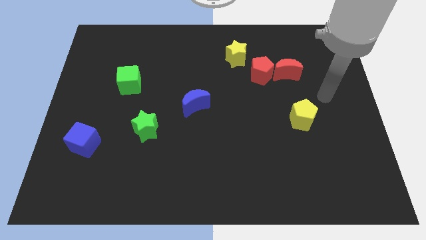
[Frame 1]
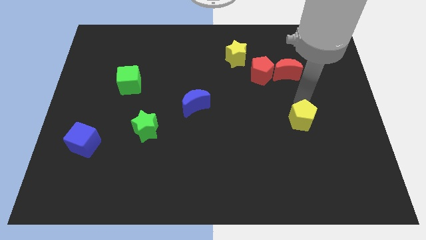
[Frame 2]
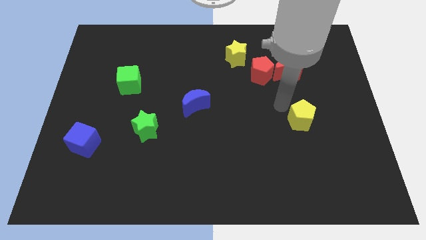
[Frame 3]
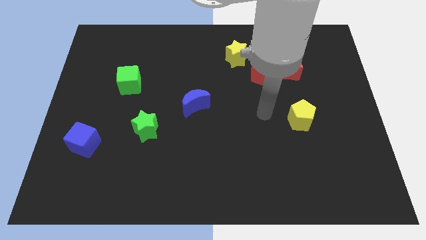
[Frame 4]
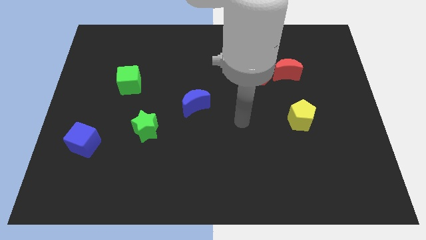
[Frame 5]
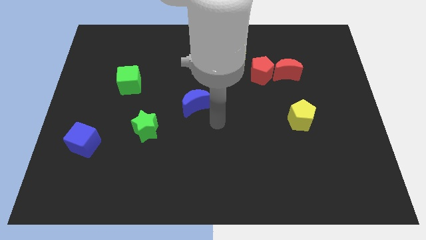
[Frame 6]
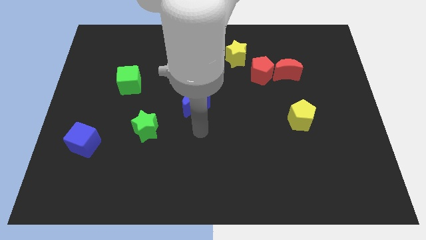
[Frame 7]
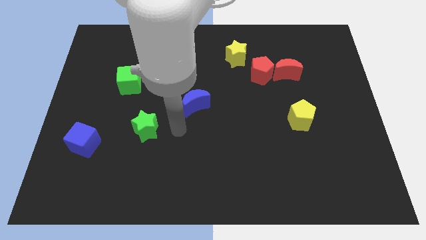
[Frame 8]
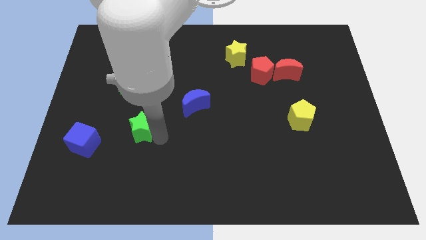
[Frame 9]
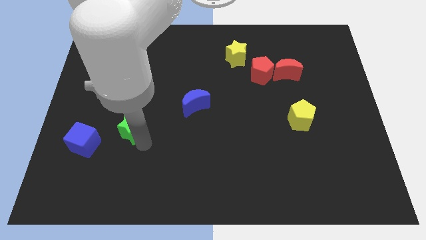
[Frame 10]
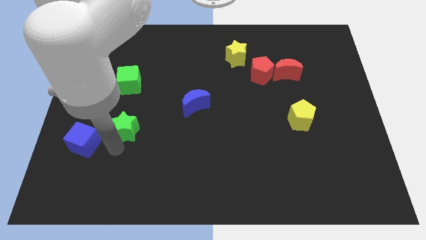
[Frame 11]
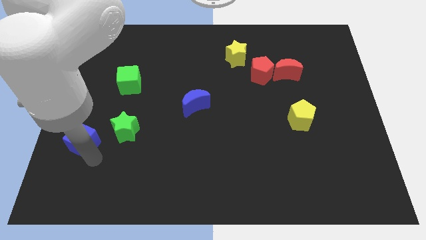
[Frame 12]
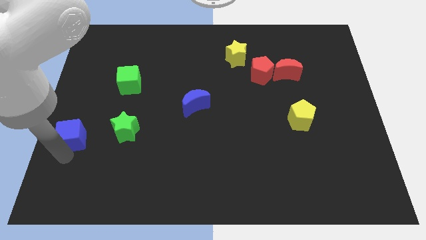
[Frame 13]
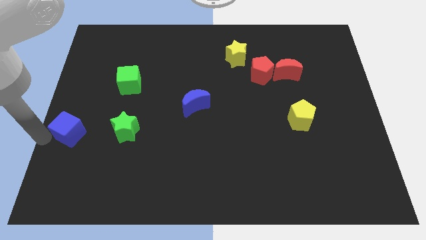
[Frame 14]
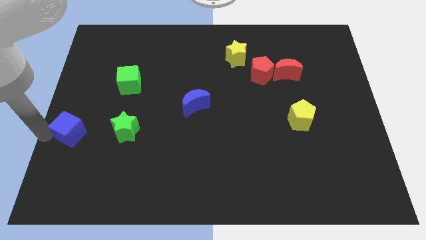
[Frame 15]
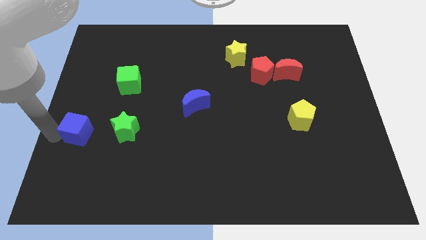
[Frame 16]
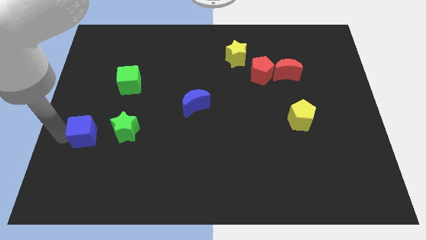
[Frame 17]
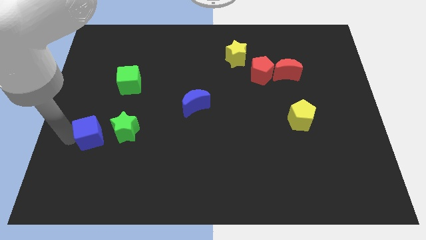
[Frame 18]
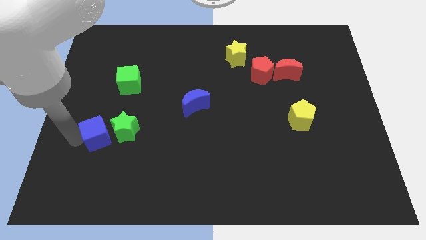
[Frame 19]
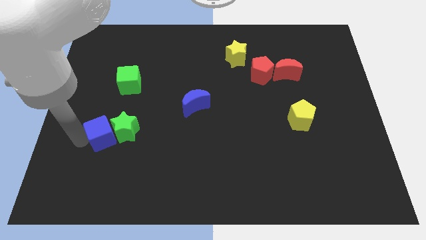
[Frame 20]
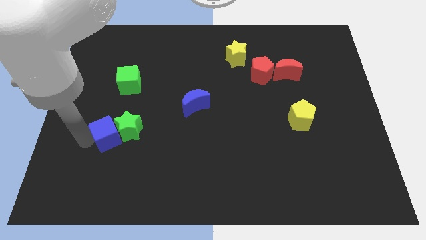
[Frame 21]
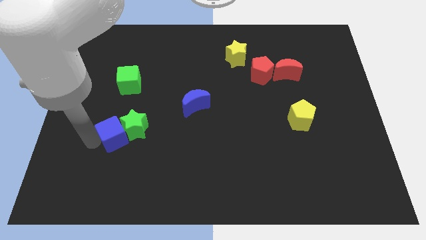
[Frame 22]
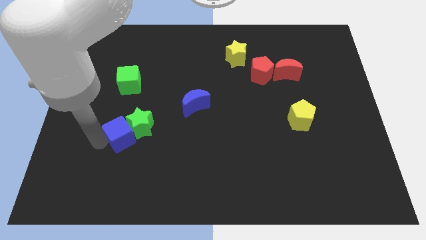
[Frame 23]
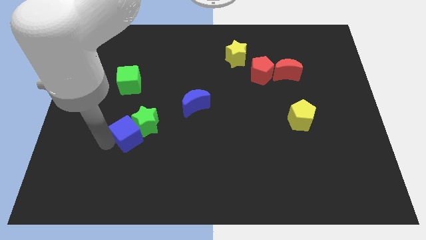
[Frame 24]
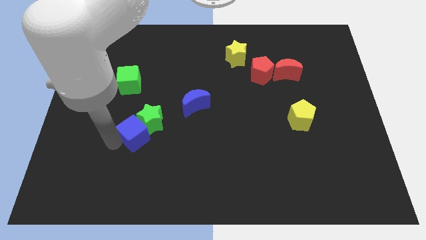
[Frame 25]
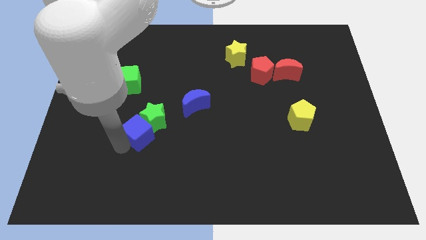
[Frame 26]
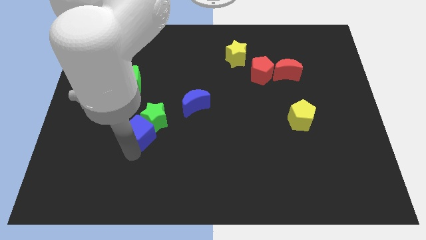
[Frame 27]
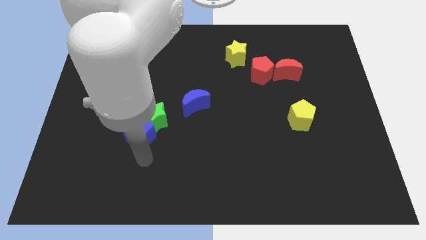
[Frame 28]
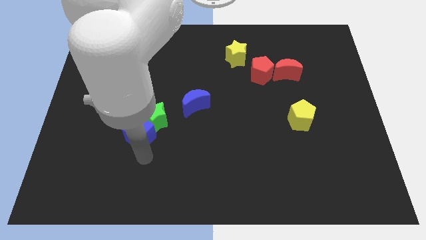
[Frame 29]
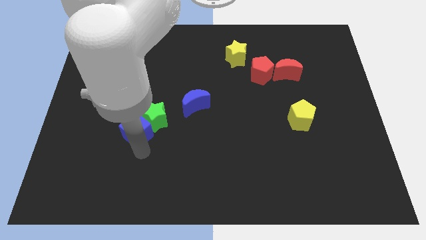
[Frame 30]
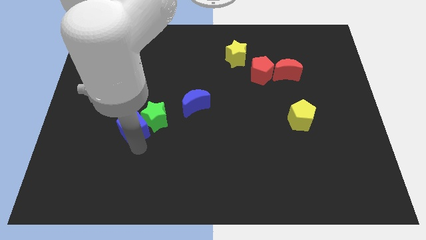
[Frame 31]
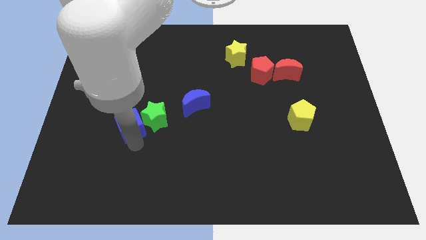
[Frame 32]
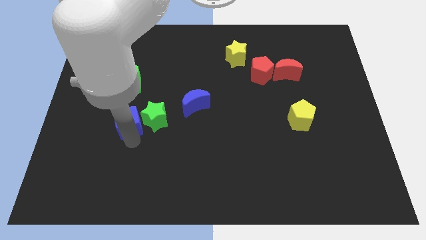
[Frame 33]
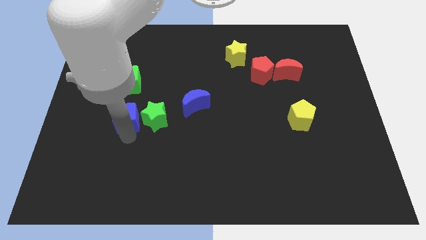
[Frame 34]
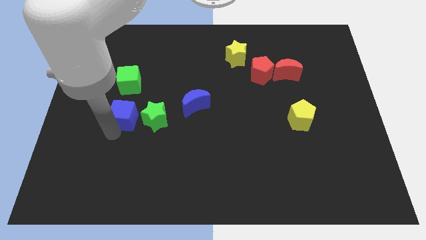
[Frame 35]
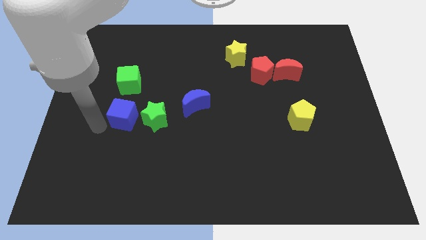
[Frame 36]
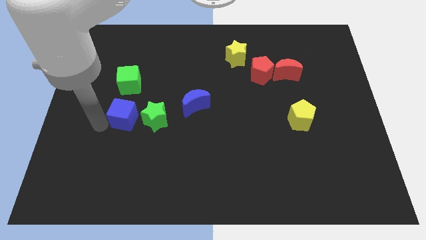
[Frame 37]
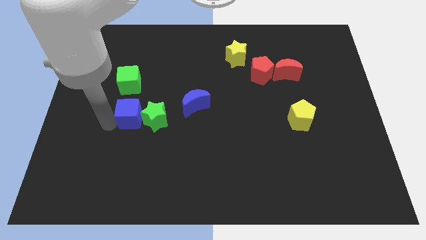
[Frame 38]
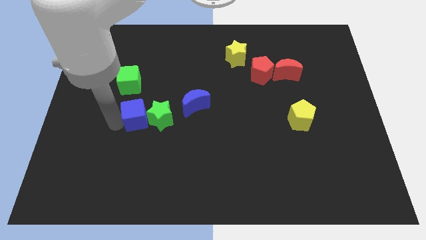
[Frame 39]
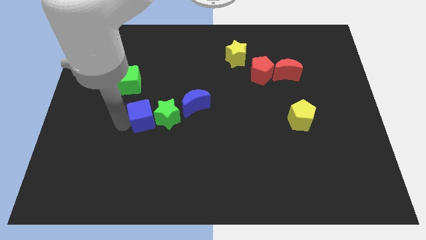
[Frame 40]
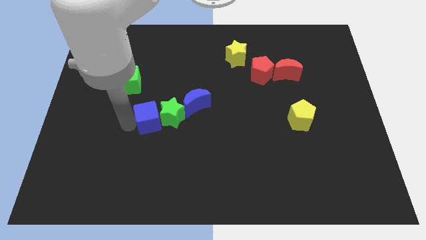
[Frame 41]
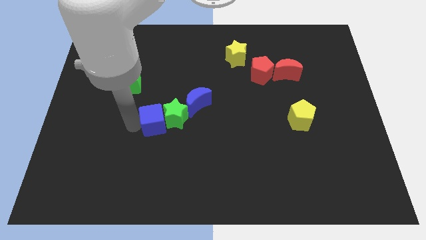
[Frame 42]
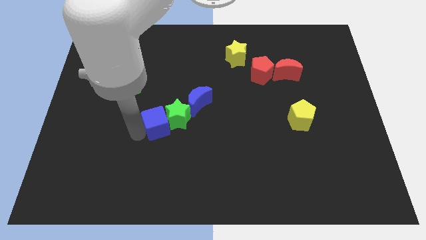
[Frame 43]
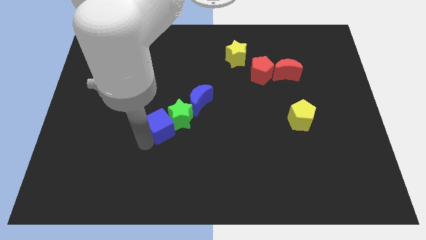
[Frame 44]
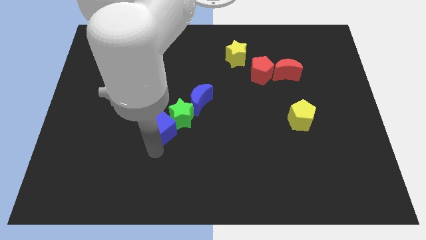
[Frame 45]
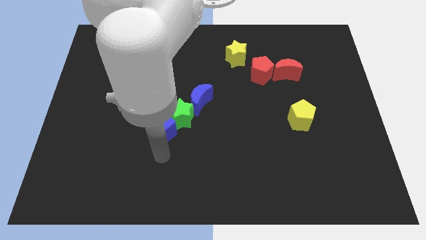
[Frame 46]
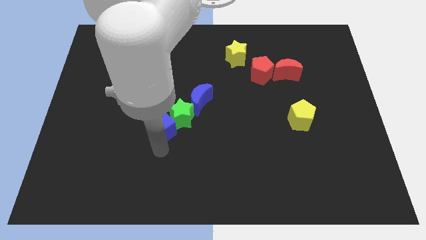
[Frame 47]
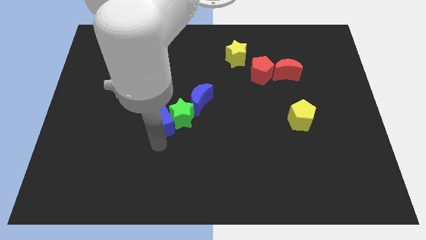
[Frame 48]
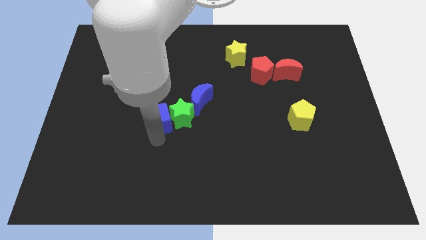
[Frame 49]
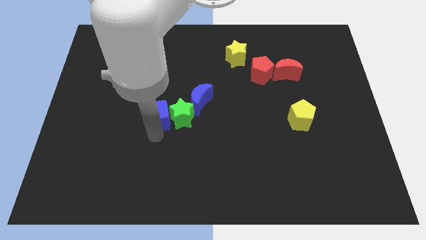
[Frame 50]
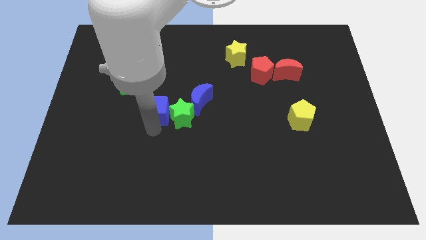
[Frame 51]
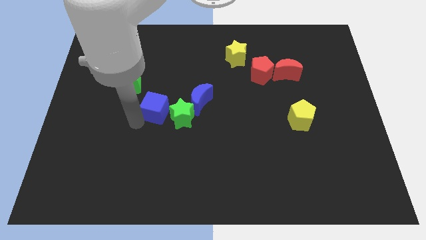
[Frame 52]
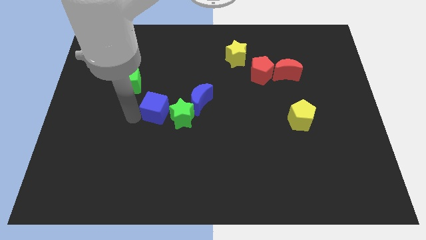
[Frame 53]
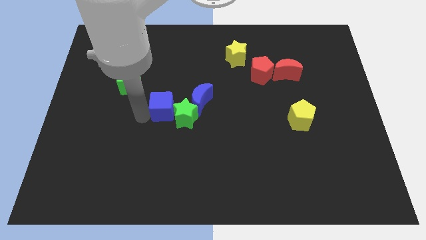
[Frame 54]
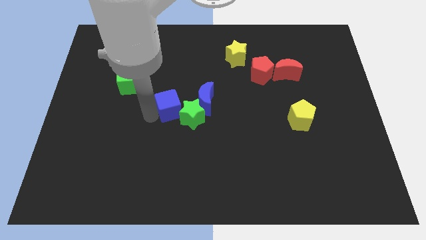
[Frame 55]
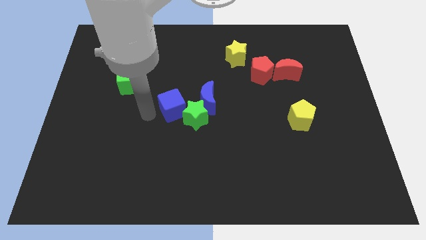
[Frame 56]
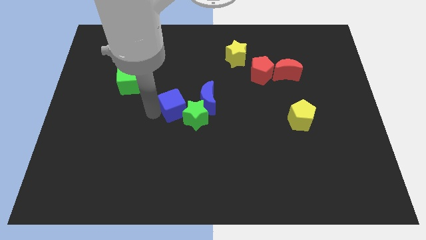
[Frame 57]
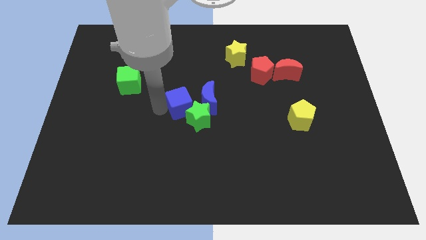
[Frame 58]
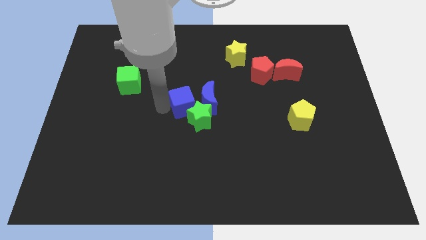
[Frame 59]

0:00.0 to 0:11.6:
push the blue cube close to the blue moon

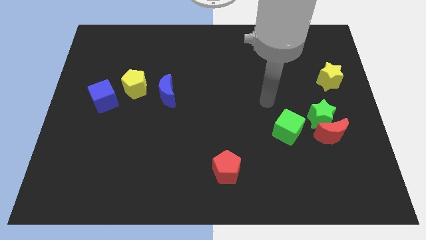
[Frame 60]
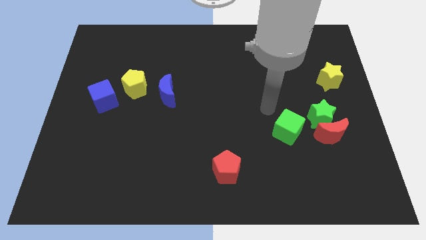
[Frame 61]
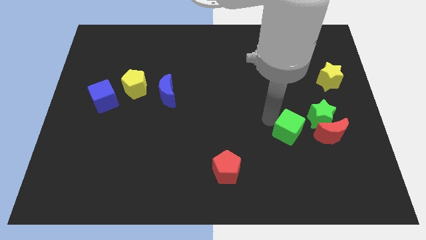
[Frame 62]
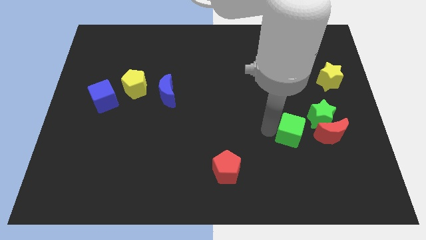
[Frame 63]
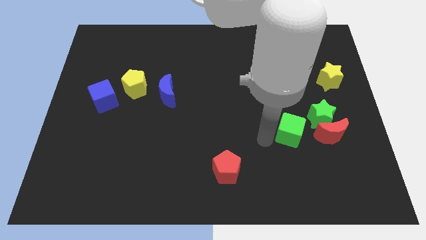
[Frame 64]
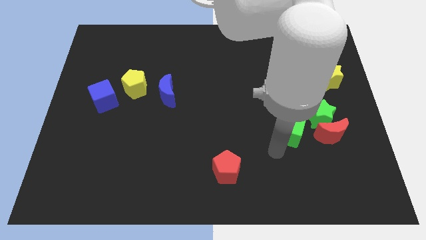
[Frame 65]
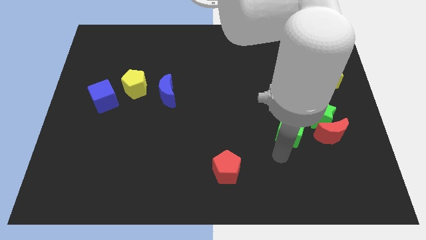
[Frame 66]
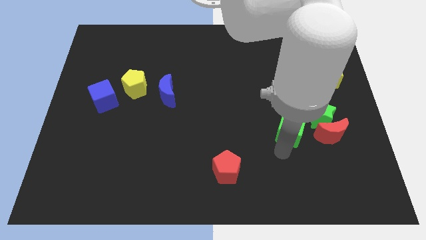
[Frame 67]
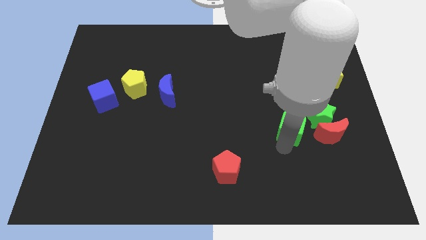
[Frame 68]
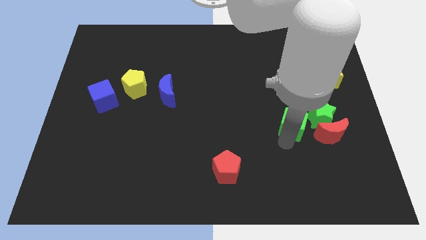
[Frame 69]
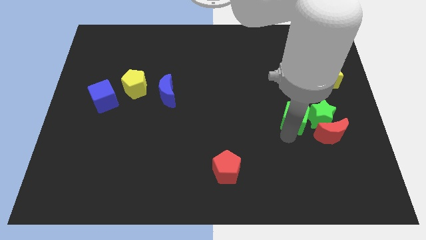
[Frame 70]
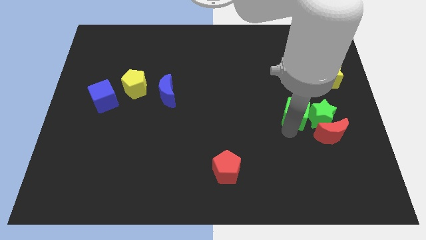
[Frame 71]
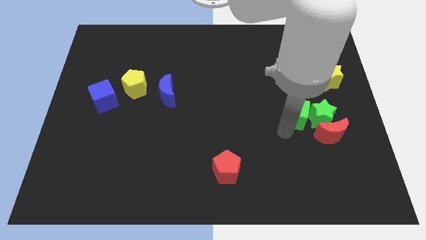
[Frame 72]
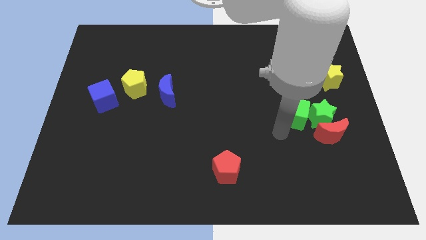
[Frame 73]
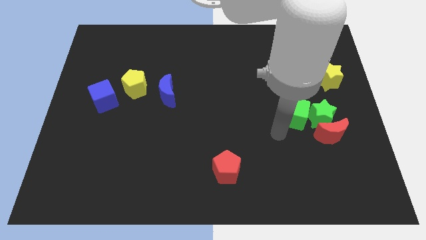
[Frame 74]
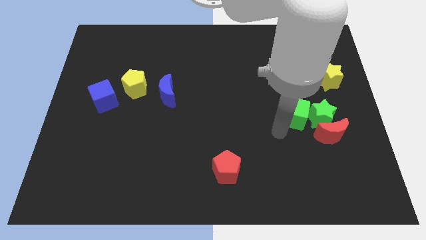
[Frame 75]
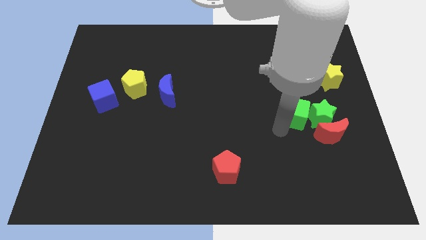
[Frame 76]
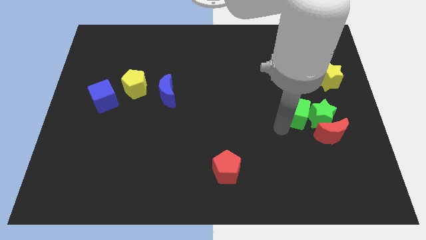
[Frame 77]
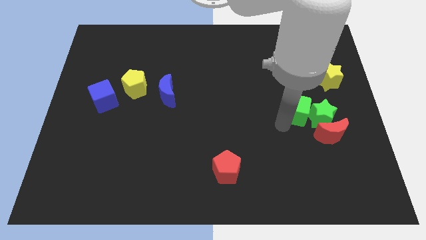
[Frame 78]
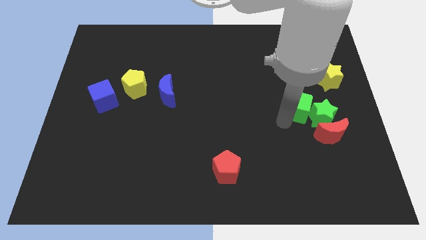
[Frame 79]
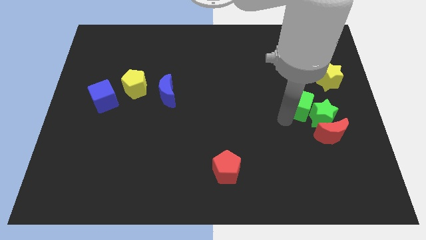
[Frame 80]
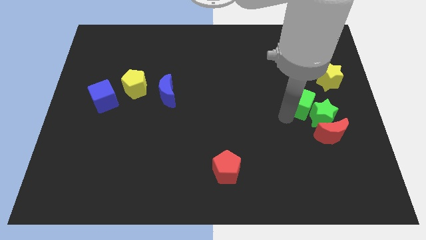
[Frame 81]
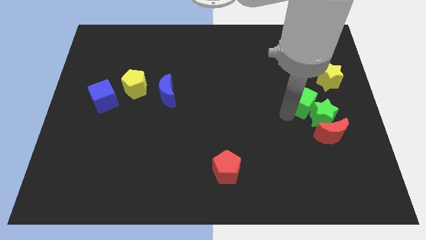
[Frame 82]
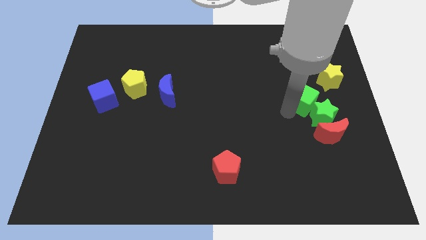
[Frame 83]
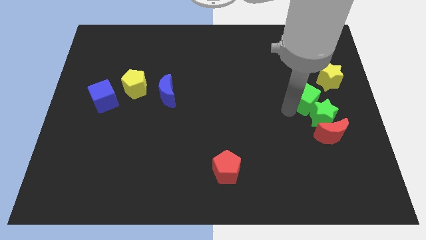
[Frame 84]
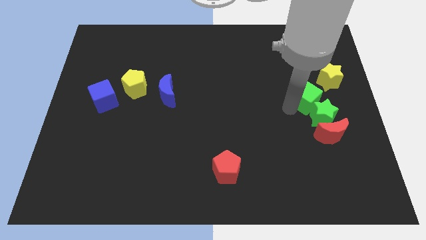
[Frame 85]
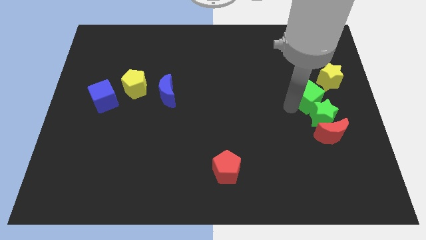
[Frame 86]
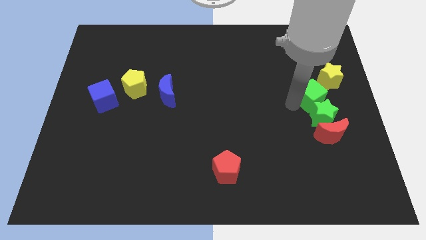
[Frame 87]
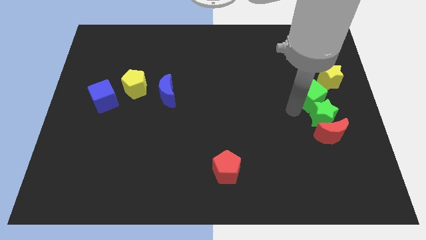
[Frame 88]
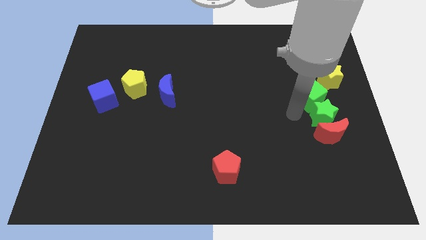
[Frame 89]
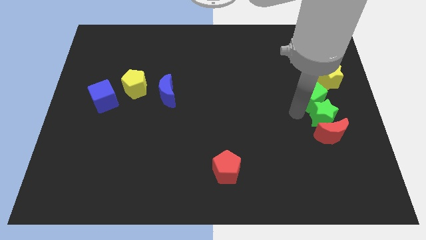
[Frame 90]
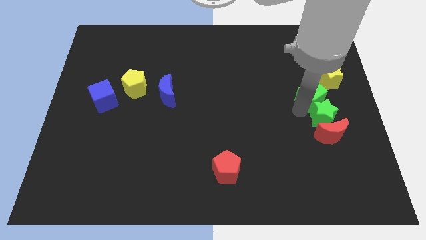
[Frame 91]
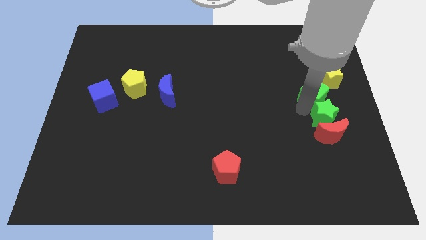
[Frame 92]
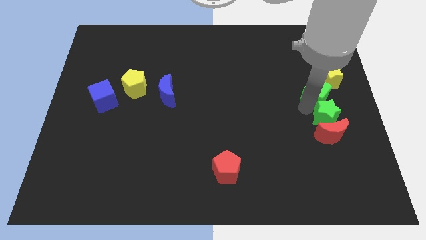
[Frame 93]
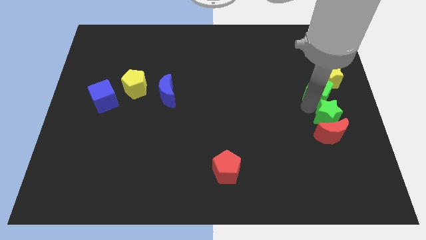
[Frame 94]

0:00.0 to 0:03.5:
put the green cube close to the yellow star
